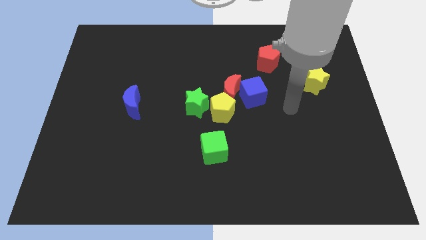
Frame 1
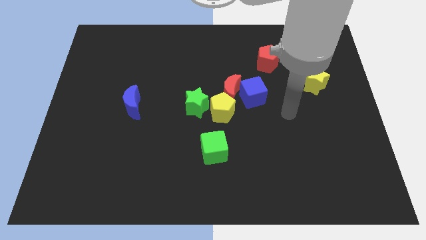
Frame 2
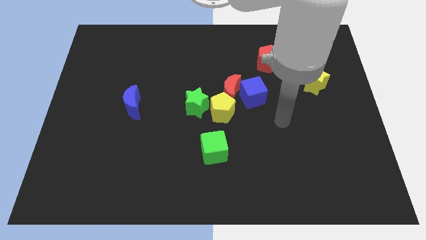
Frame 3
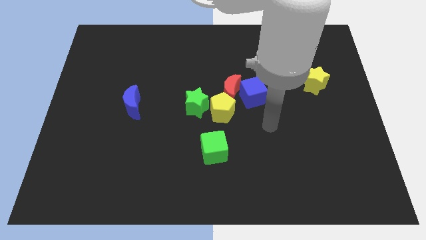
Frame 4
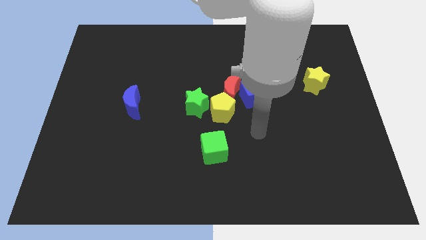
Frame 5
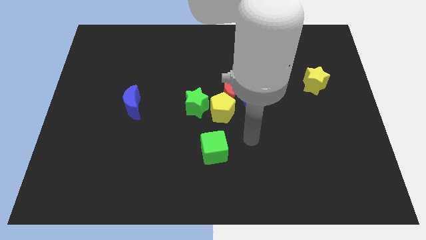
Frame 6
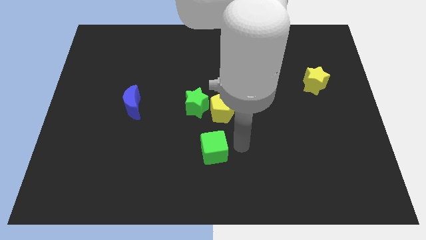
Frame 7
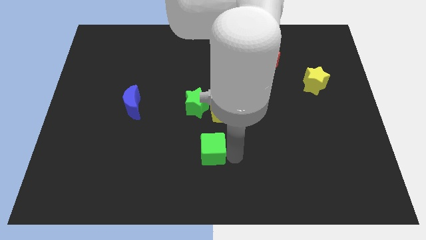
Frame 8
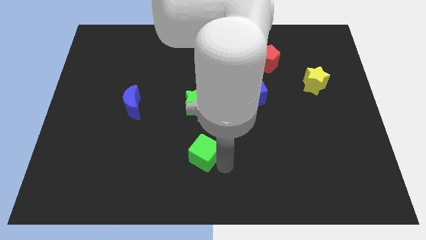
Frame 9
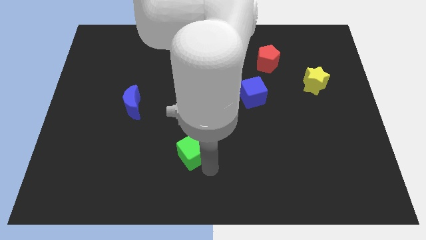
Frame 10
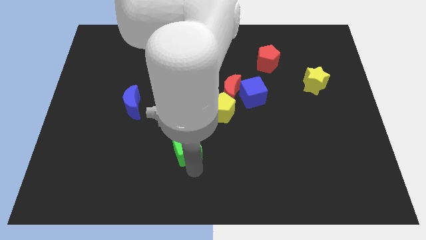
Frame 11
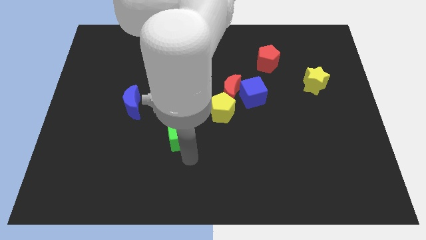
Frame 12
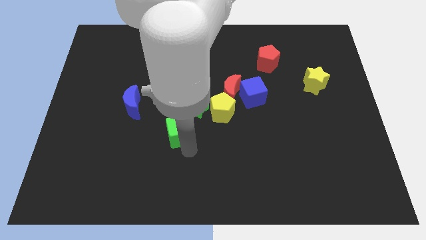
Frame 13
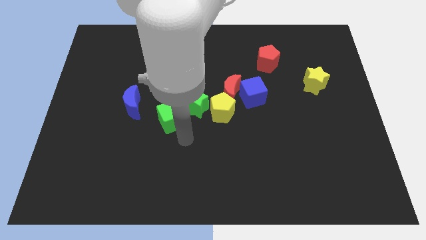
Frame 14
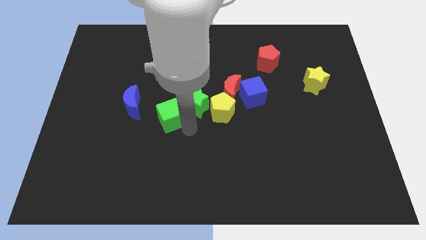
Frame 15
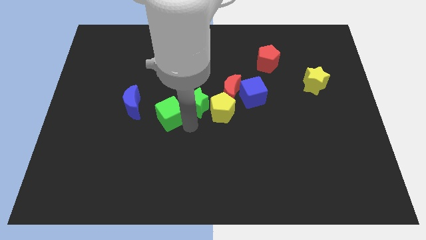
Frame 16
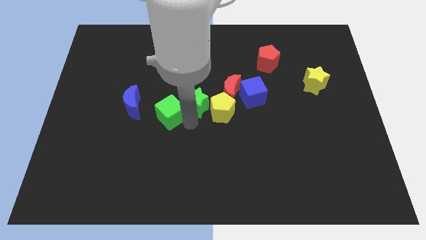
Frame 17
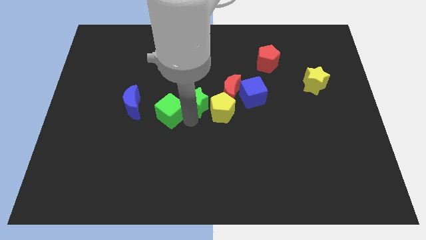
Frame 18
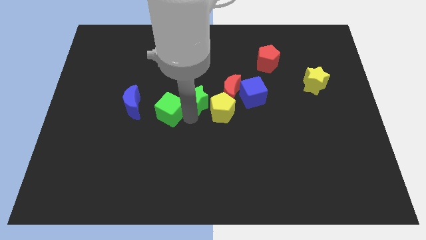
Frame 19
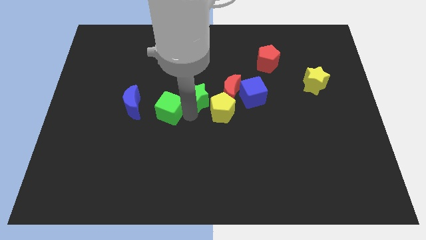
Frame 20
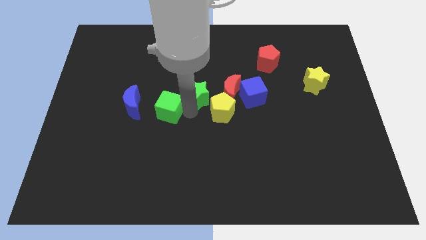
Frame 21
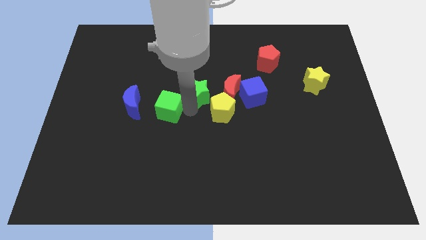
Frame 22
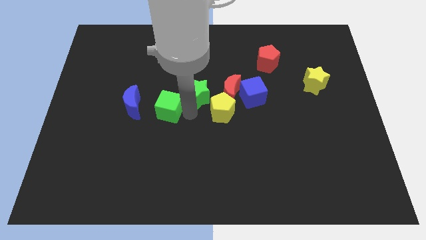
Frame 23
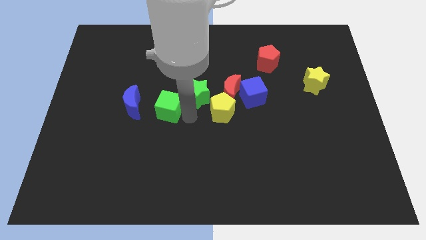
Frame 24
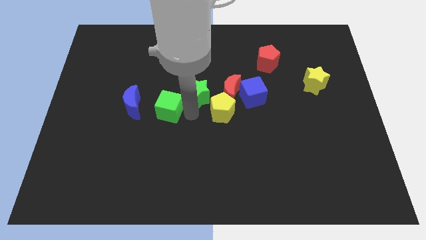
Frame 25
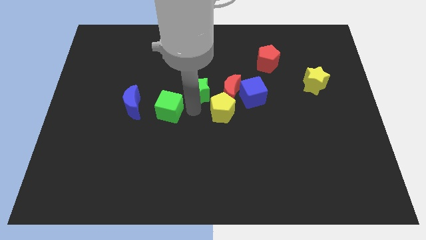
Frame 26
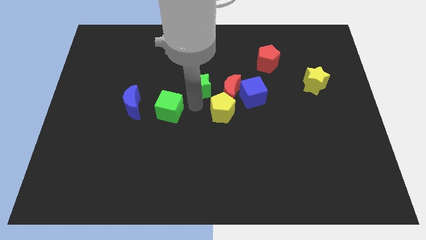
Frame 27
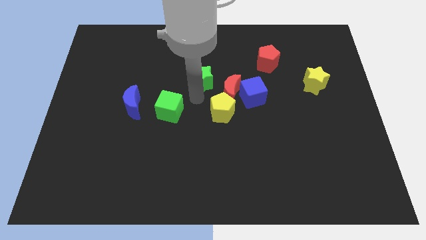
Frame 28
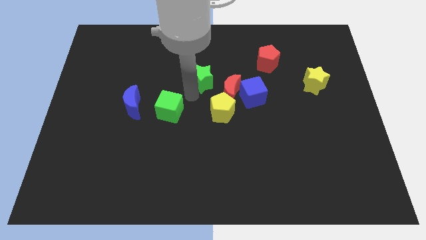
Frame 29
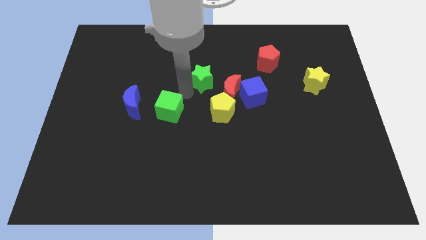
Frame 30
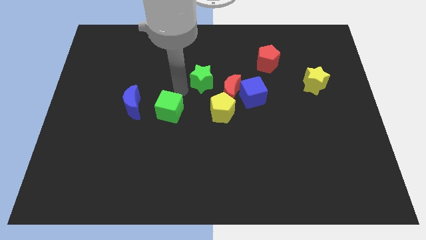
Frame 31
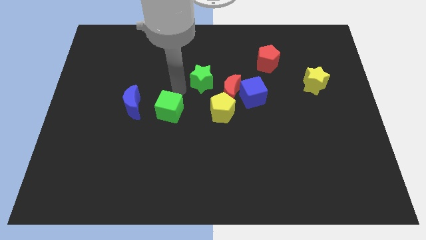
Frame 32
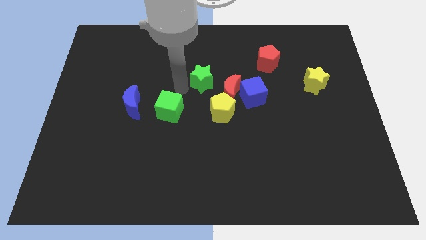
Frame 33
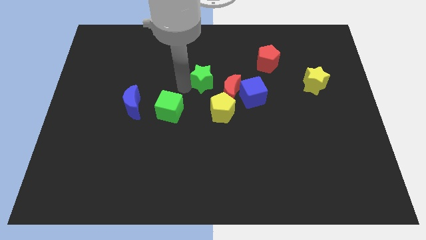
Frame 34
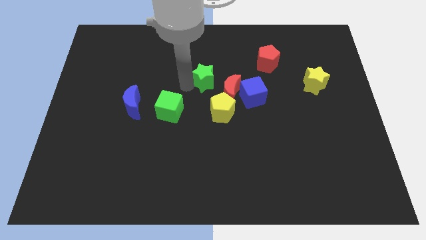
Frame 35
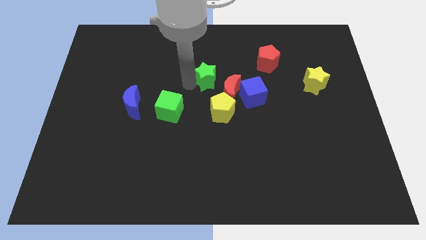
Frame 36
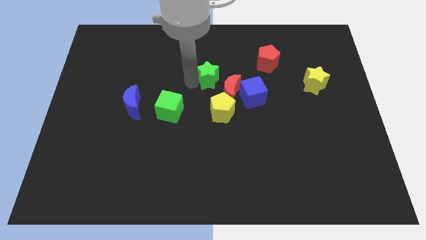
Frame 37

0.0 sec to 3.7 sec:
slide the green star diagonally upwards and right a little bit

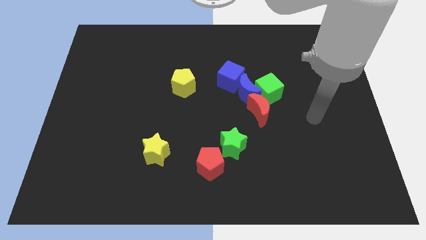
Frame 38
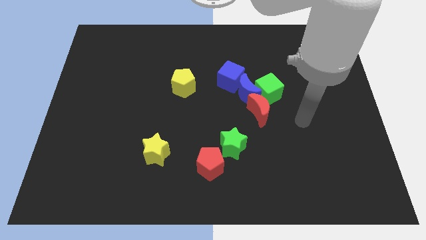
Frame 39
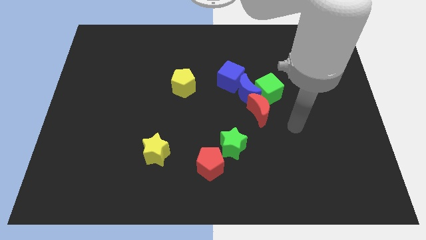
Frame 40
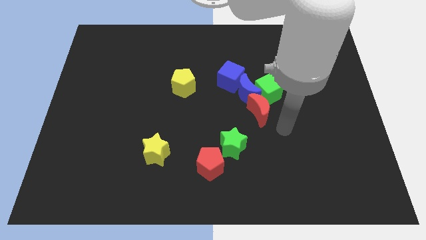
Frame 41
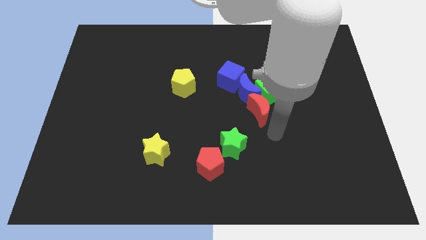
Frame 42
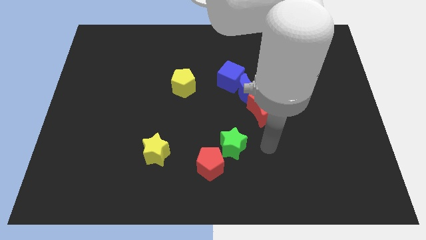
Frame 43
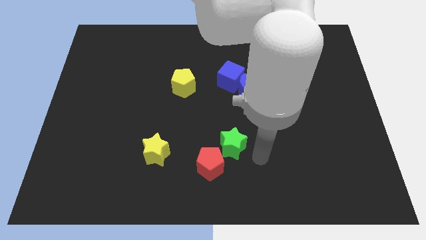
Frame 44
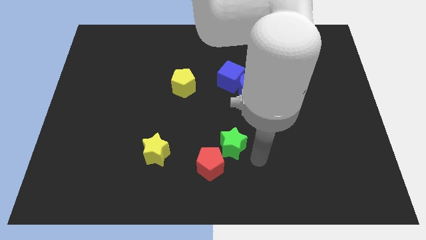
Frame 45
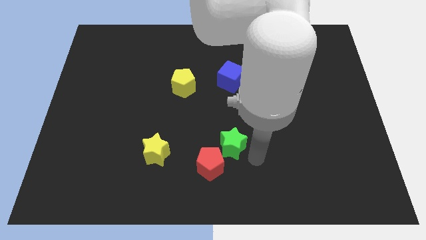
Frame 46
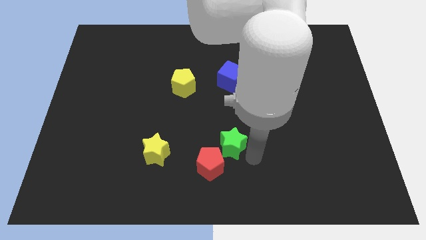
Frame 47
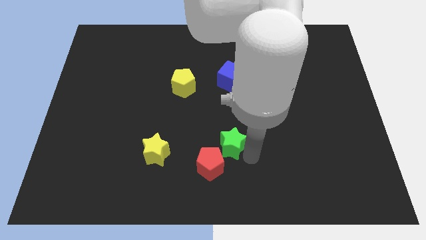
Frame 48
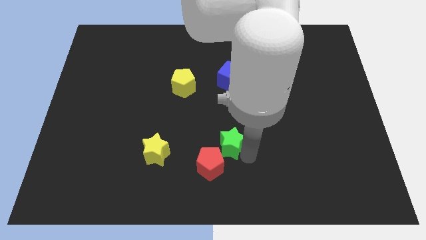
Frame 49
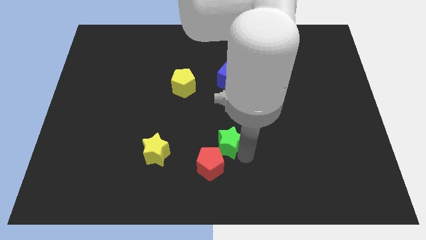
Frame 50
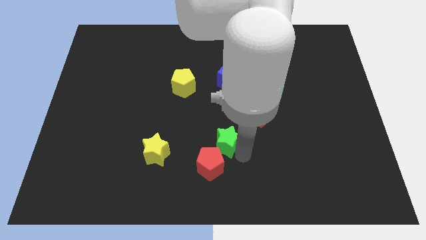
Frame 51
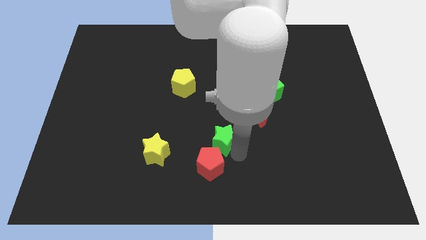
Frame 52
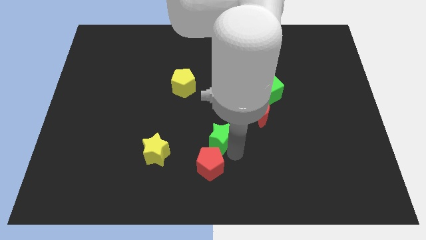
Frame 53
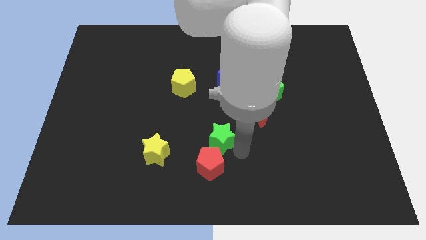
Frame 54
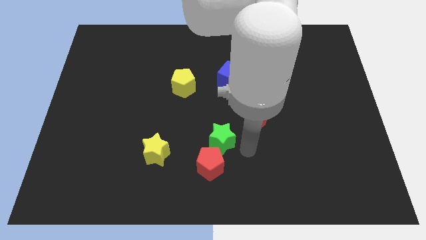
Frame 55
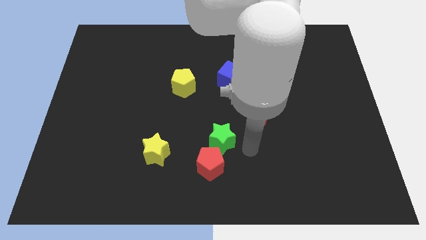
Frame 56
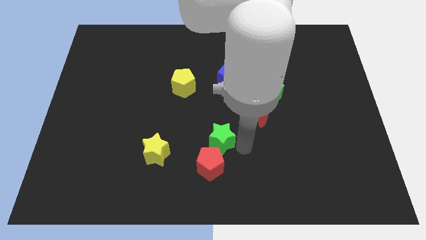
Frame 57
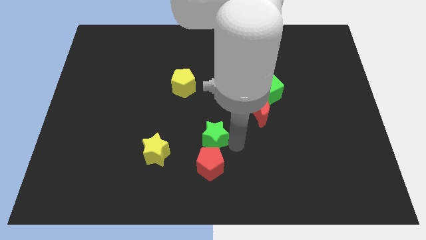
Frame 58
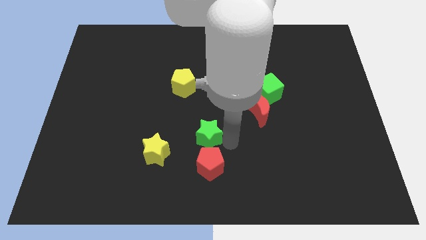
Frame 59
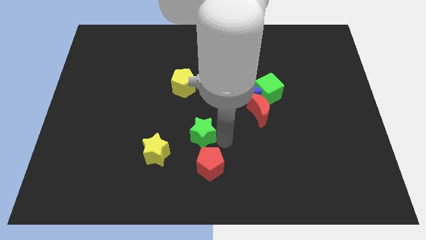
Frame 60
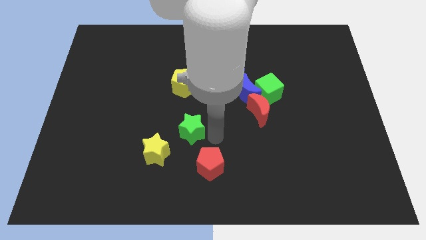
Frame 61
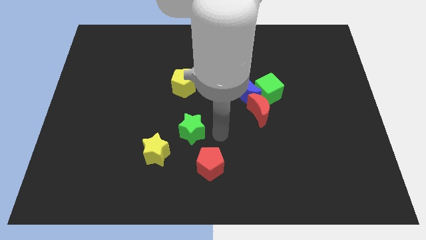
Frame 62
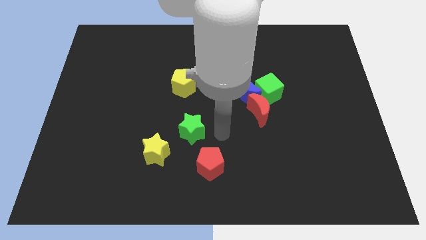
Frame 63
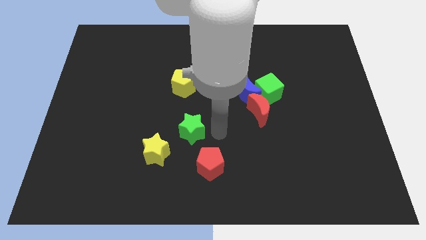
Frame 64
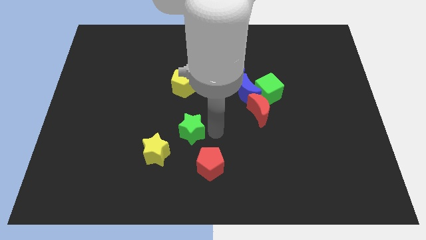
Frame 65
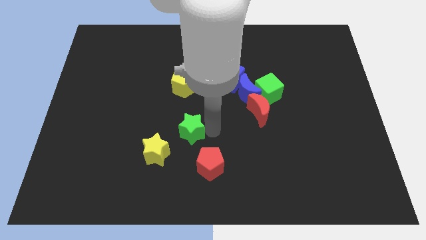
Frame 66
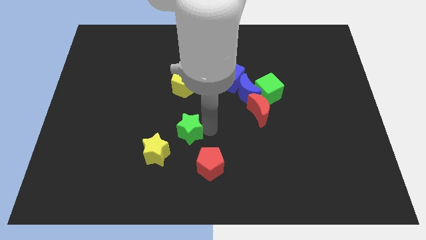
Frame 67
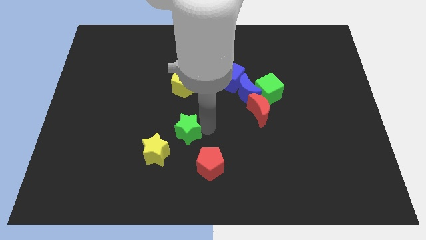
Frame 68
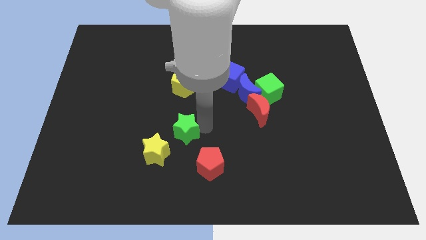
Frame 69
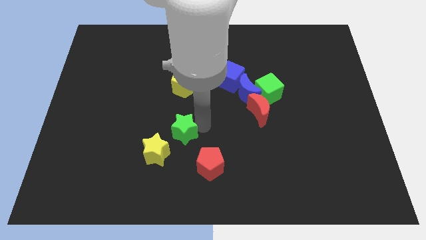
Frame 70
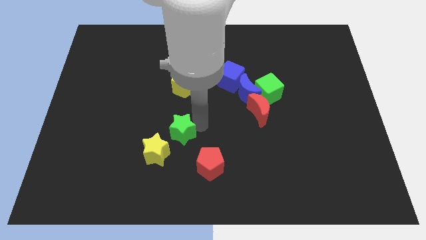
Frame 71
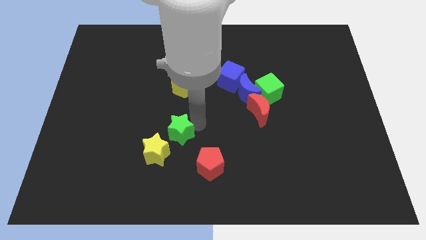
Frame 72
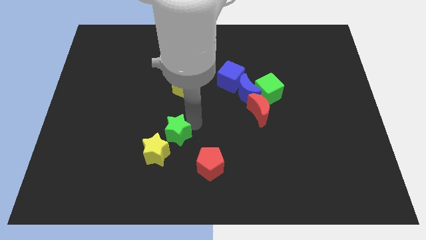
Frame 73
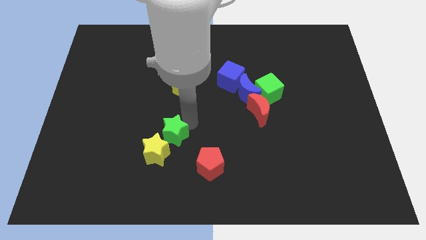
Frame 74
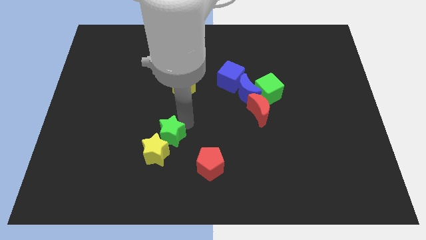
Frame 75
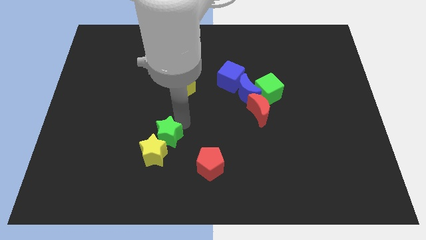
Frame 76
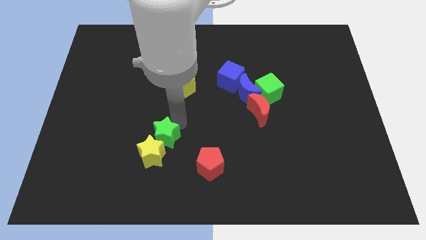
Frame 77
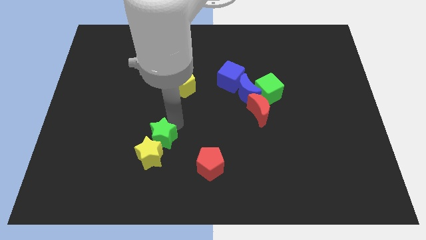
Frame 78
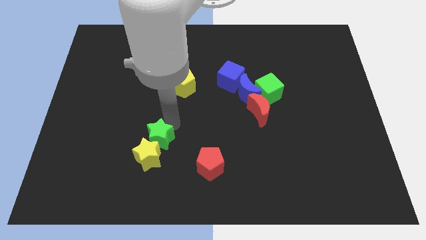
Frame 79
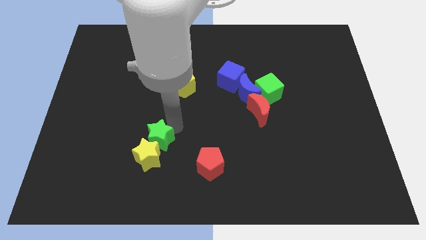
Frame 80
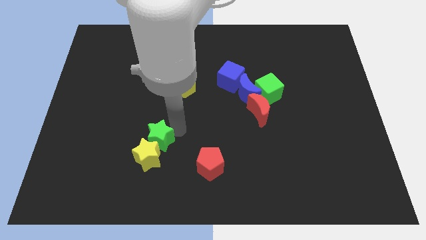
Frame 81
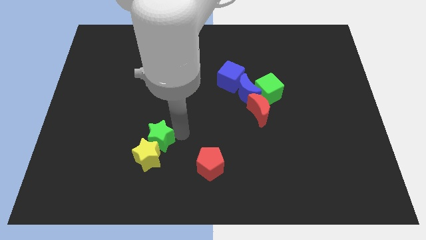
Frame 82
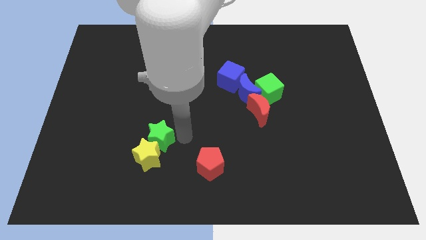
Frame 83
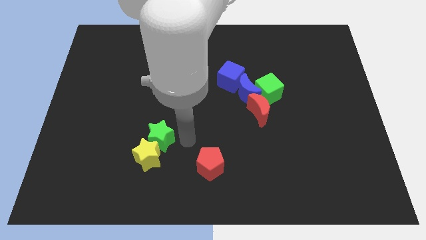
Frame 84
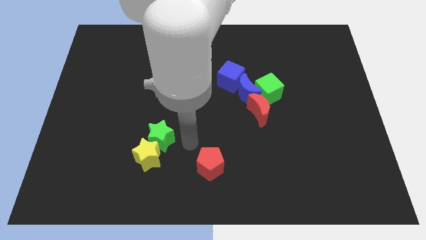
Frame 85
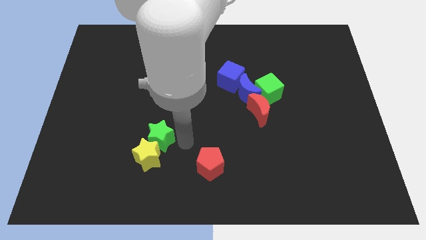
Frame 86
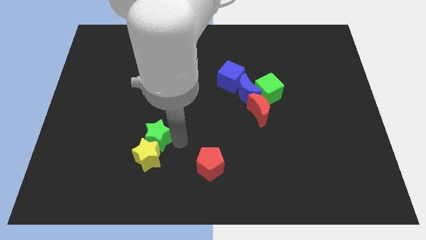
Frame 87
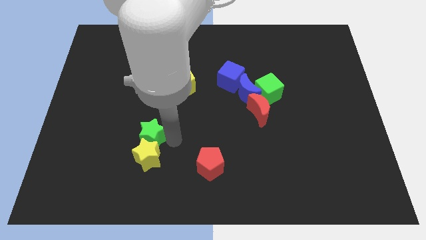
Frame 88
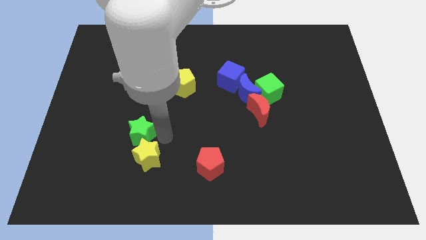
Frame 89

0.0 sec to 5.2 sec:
move the green star to the left
